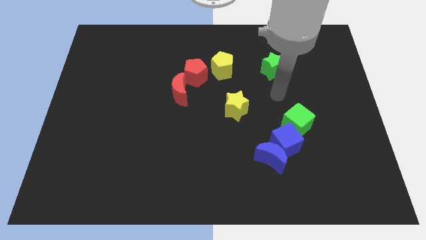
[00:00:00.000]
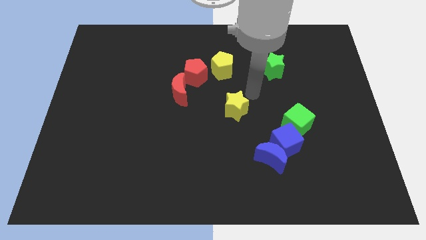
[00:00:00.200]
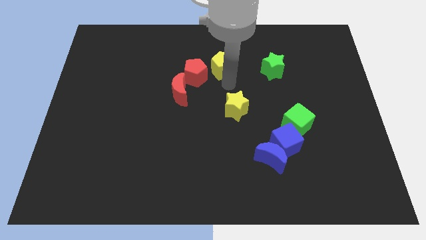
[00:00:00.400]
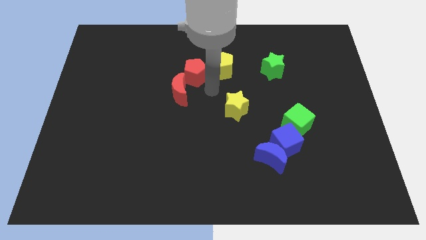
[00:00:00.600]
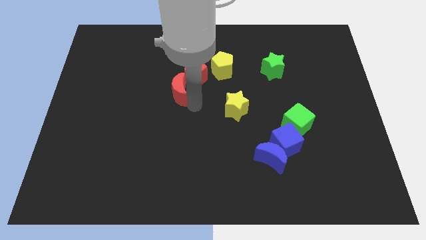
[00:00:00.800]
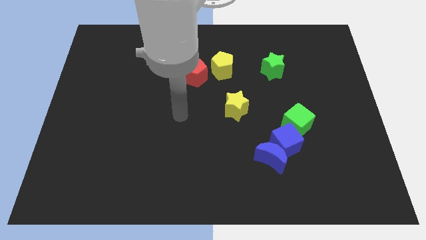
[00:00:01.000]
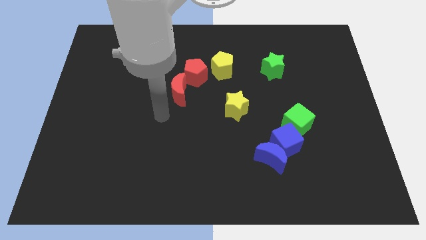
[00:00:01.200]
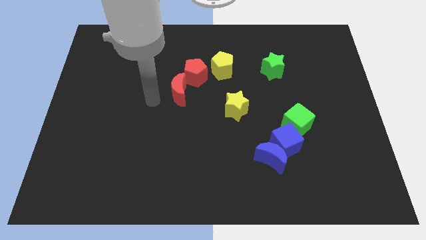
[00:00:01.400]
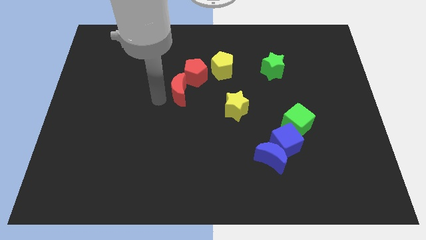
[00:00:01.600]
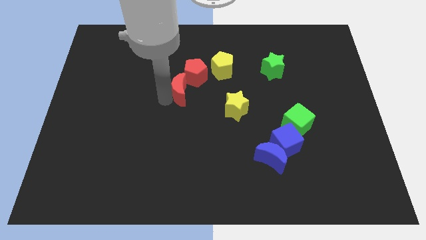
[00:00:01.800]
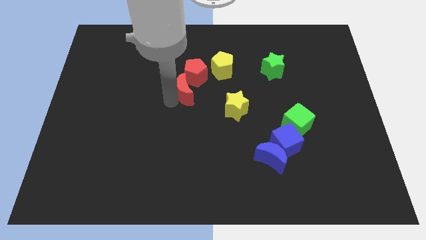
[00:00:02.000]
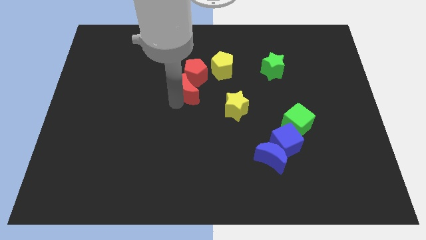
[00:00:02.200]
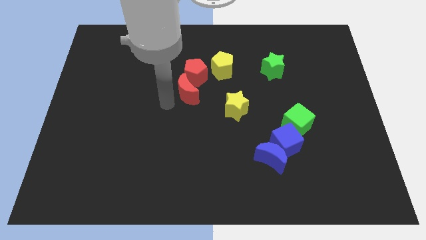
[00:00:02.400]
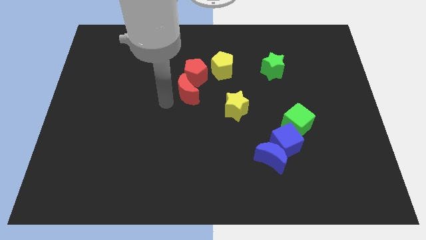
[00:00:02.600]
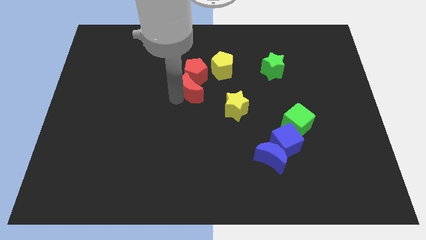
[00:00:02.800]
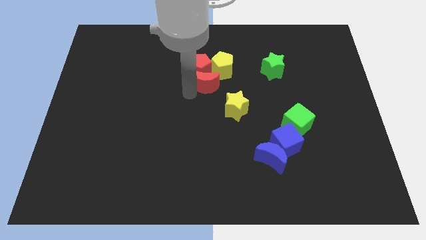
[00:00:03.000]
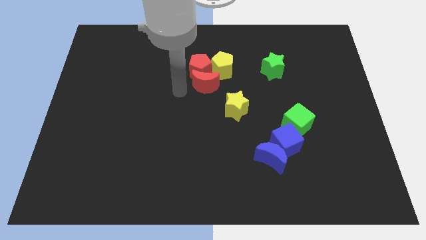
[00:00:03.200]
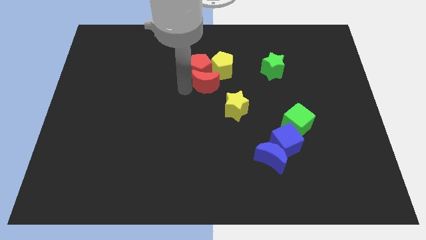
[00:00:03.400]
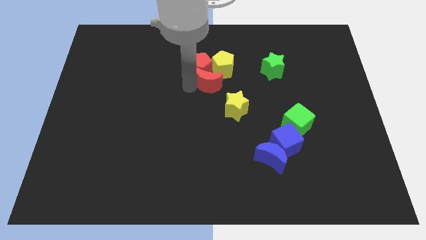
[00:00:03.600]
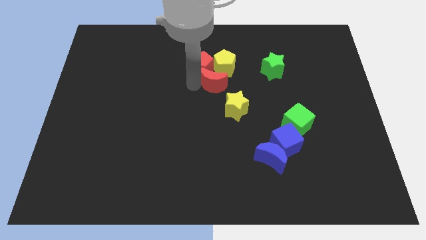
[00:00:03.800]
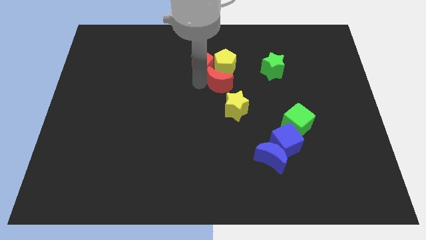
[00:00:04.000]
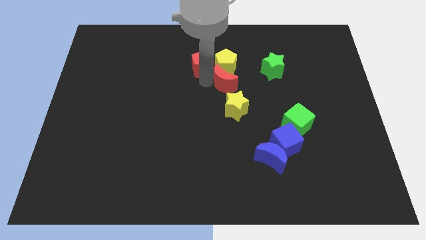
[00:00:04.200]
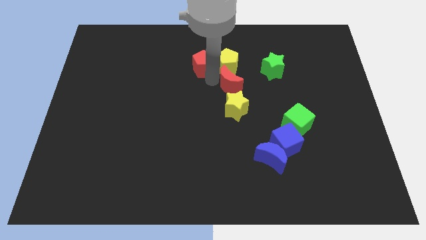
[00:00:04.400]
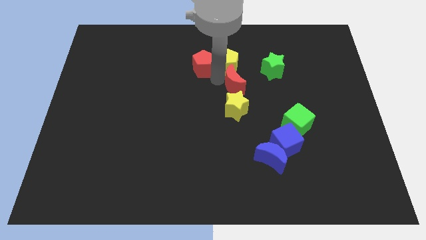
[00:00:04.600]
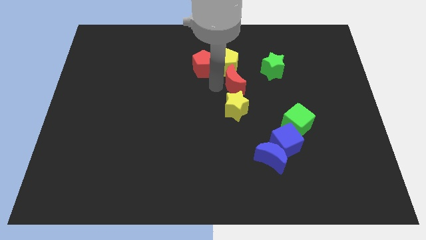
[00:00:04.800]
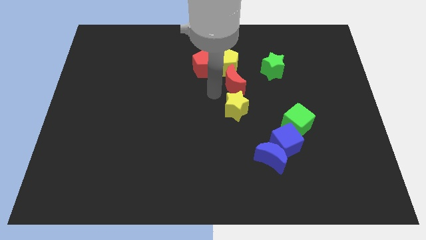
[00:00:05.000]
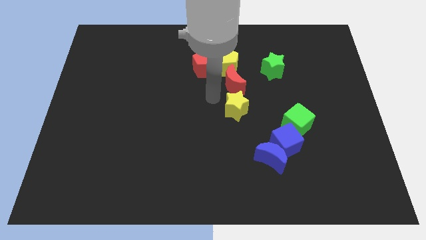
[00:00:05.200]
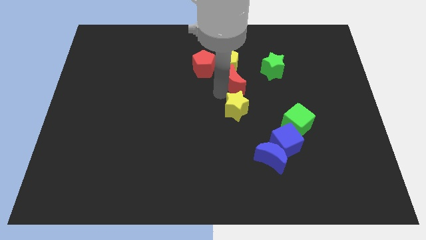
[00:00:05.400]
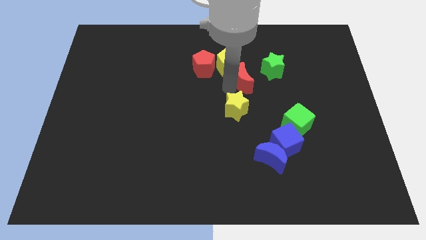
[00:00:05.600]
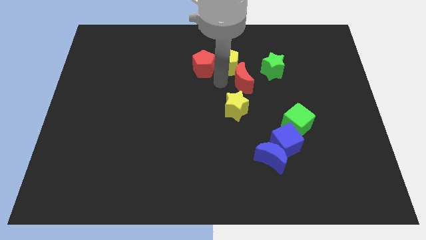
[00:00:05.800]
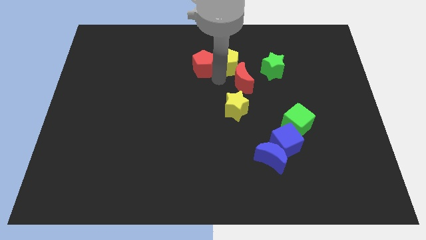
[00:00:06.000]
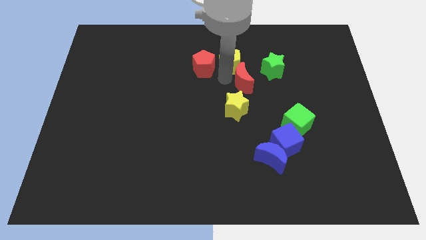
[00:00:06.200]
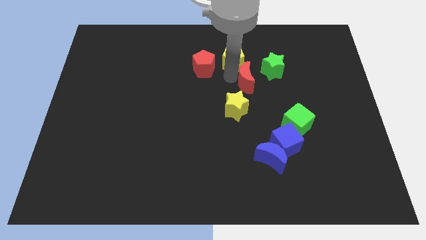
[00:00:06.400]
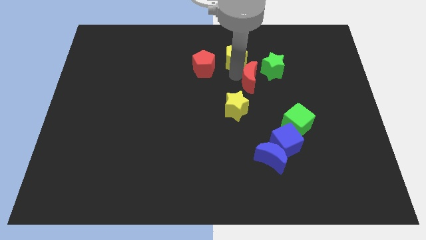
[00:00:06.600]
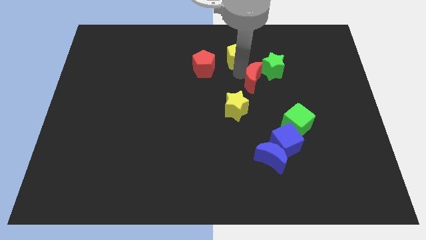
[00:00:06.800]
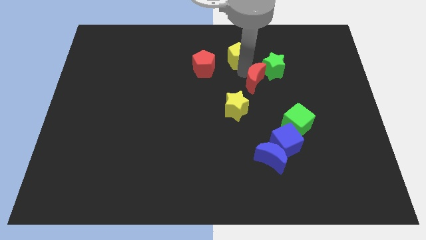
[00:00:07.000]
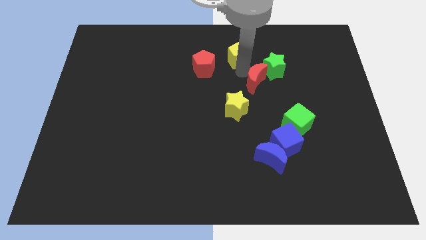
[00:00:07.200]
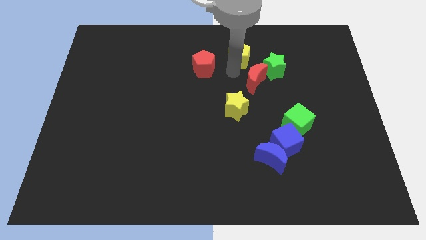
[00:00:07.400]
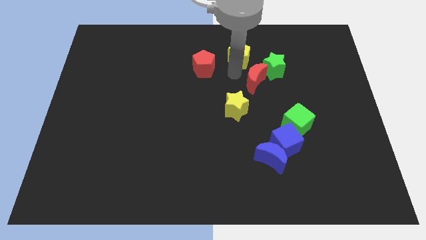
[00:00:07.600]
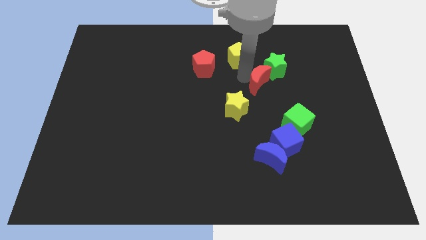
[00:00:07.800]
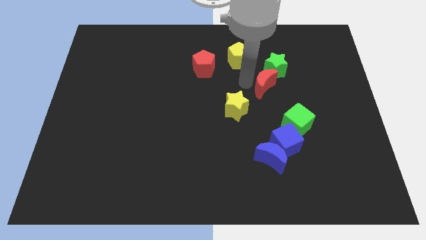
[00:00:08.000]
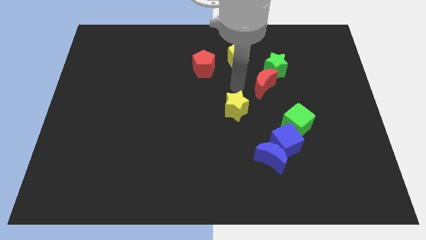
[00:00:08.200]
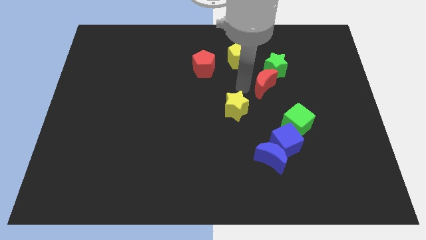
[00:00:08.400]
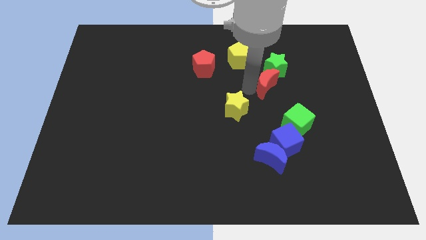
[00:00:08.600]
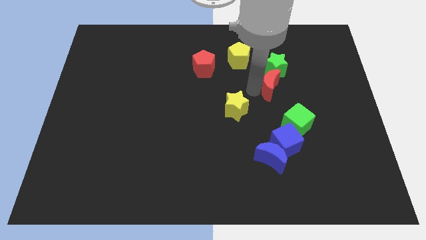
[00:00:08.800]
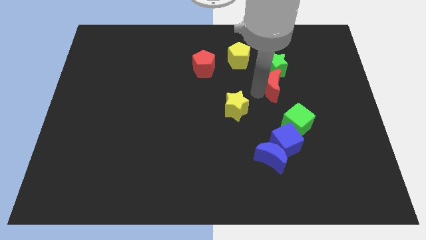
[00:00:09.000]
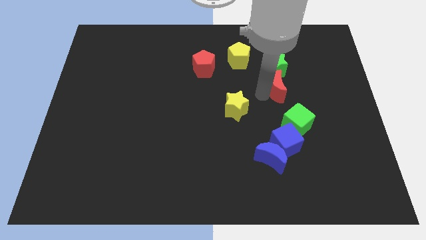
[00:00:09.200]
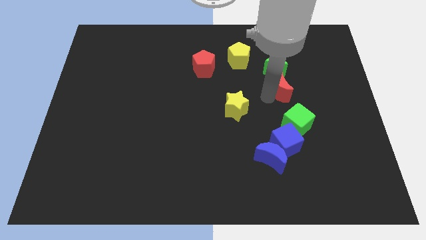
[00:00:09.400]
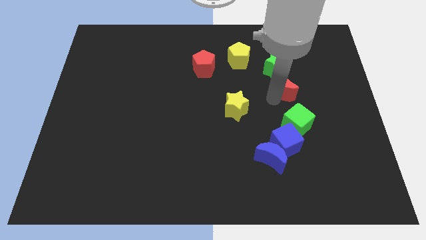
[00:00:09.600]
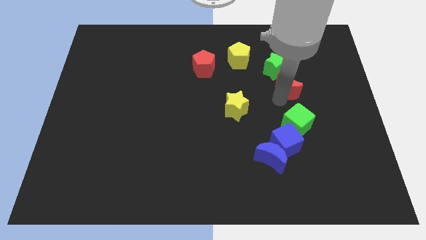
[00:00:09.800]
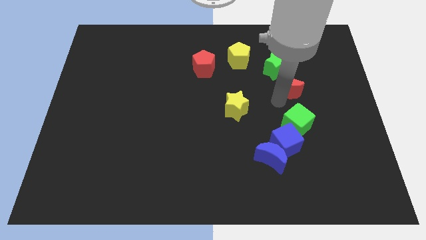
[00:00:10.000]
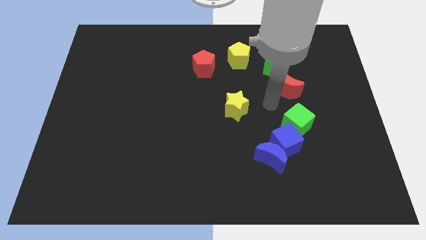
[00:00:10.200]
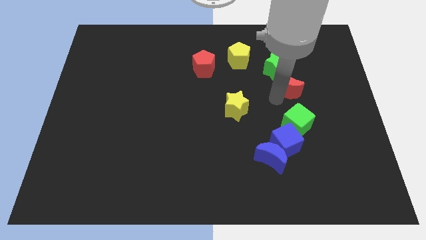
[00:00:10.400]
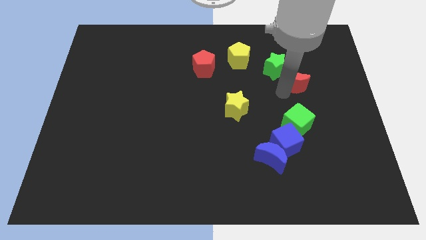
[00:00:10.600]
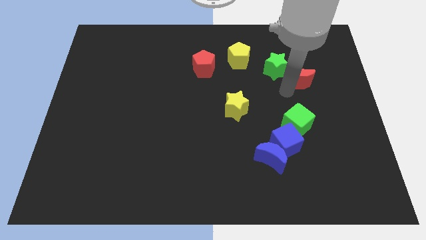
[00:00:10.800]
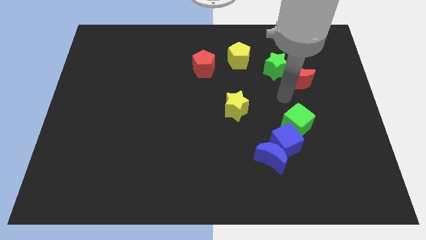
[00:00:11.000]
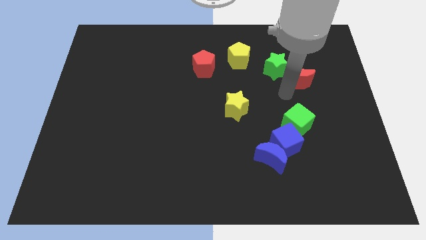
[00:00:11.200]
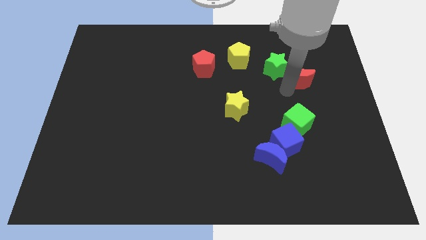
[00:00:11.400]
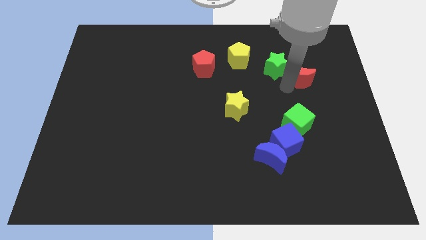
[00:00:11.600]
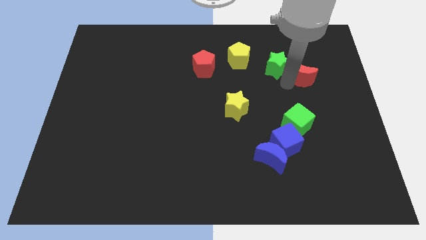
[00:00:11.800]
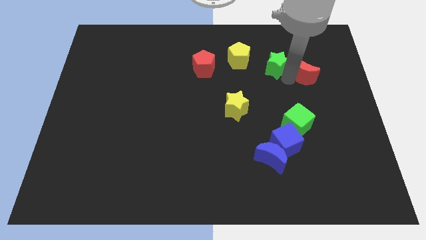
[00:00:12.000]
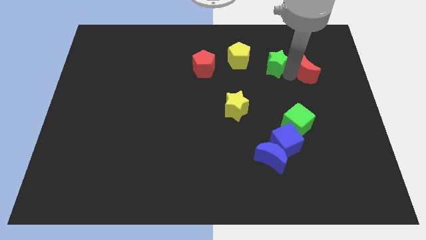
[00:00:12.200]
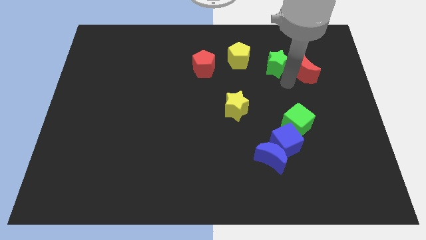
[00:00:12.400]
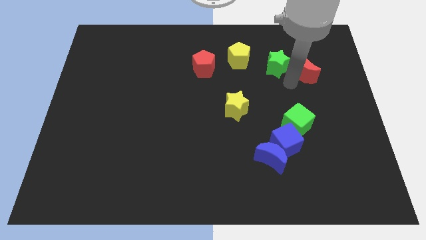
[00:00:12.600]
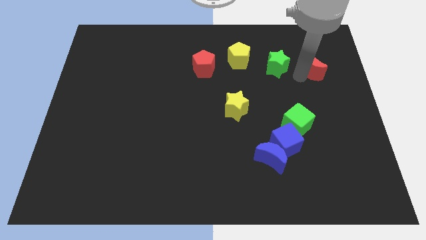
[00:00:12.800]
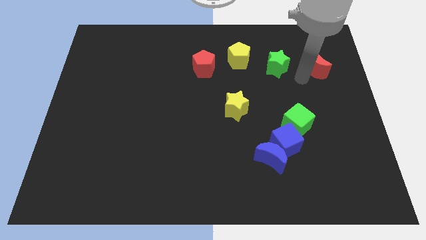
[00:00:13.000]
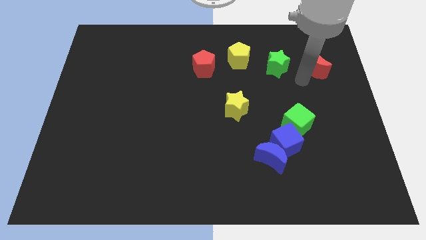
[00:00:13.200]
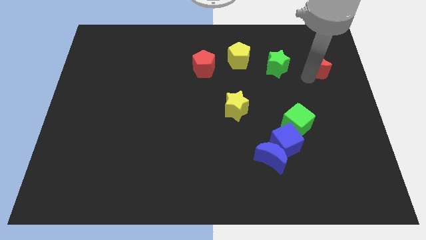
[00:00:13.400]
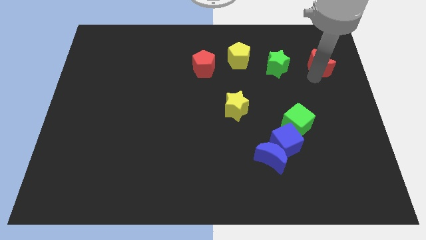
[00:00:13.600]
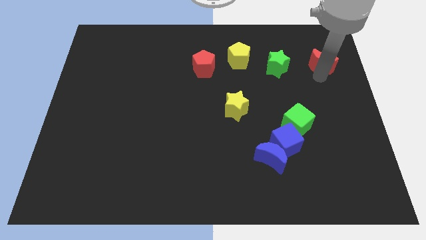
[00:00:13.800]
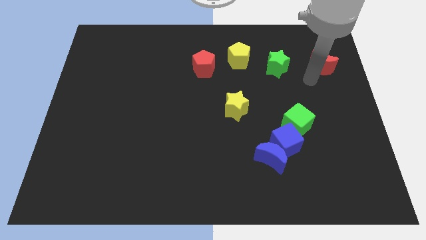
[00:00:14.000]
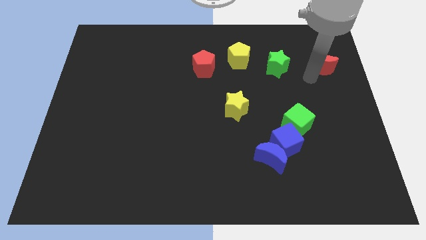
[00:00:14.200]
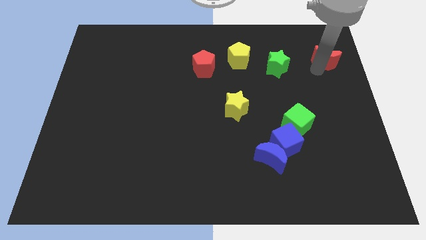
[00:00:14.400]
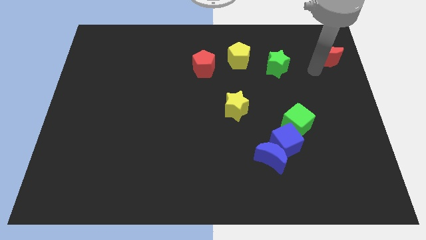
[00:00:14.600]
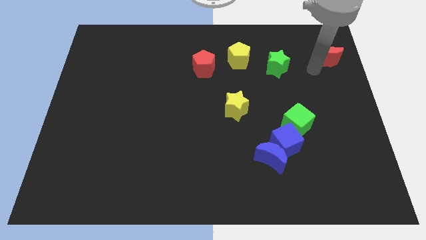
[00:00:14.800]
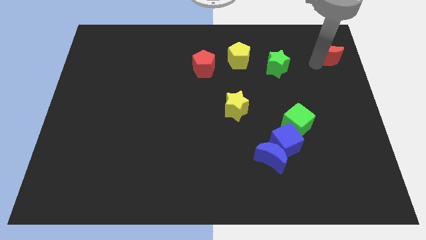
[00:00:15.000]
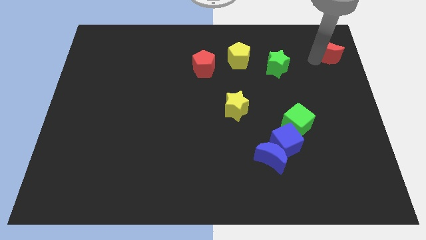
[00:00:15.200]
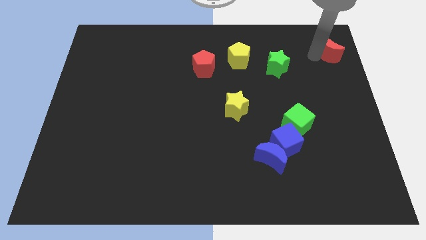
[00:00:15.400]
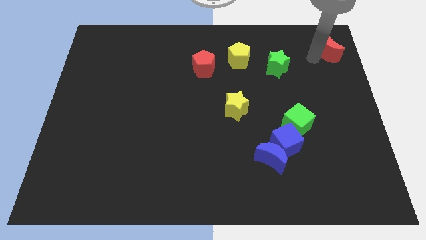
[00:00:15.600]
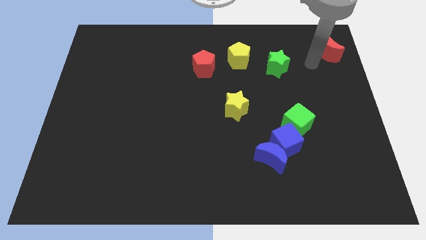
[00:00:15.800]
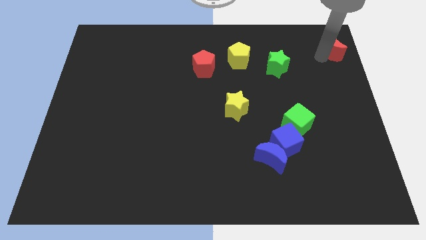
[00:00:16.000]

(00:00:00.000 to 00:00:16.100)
put the red moon to the top right corner
